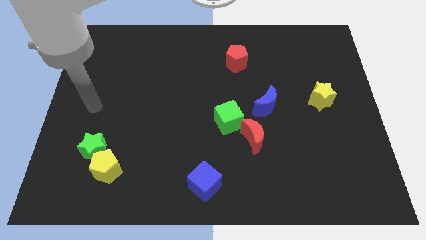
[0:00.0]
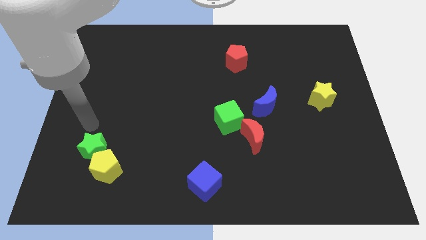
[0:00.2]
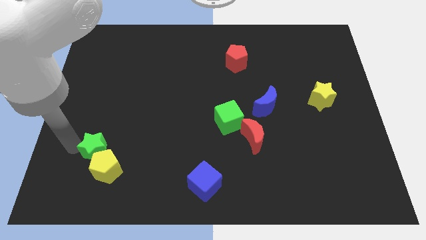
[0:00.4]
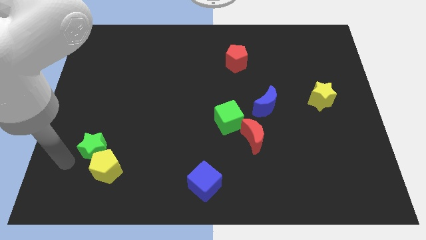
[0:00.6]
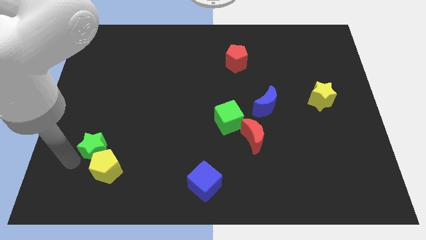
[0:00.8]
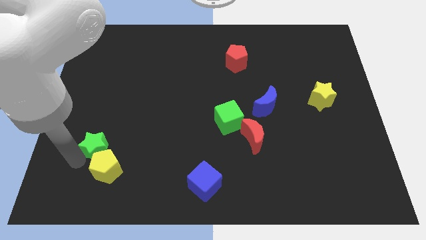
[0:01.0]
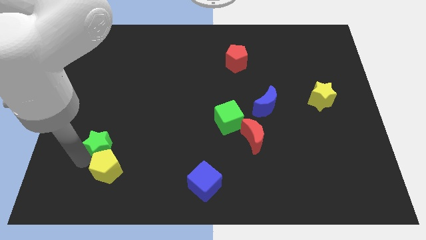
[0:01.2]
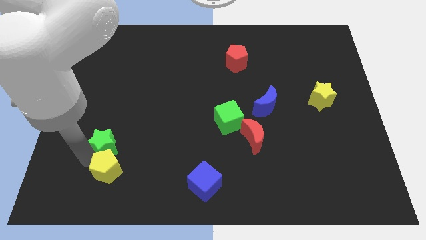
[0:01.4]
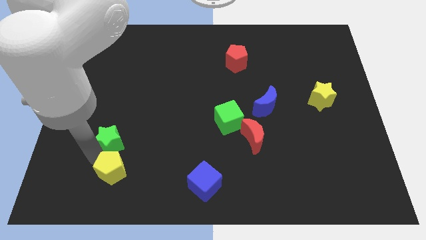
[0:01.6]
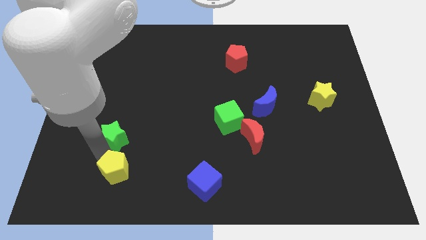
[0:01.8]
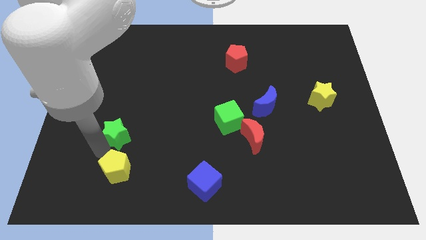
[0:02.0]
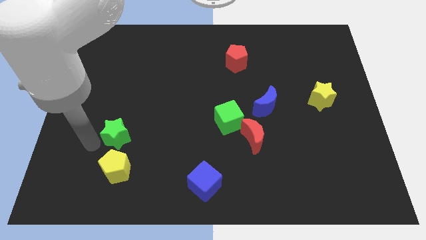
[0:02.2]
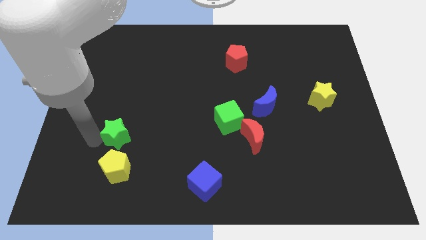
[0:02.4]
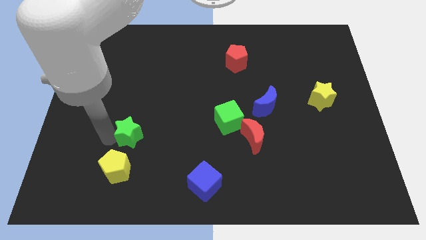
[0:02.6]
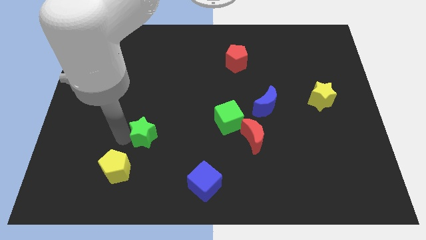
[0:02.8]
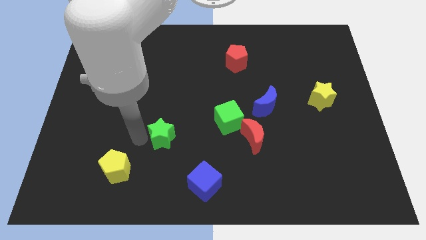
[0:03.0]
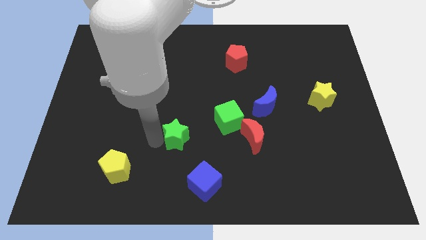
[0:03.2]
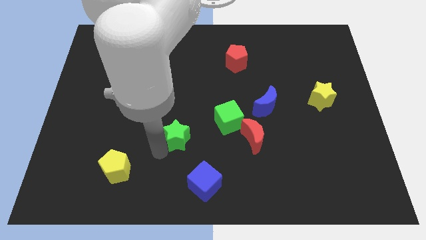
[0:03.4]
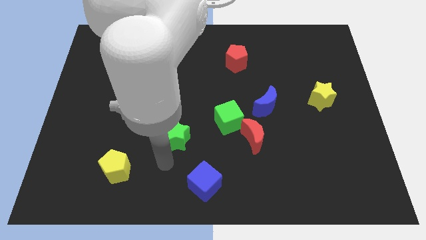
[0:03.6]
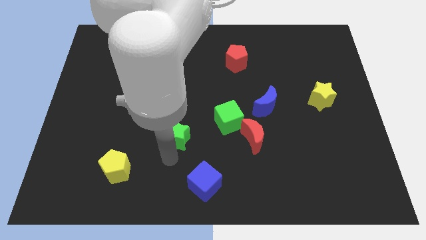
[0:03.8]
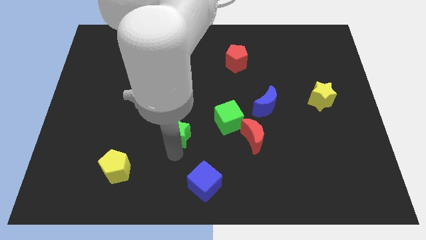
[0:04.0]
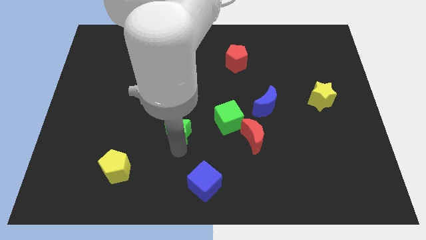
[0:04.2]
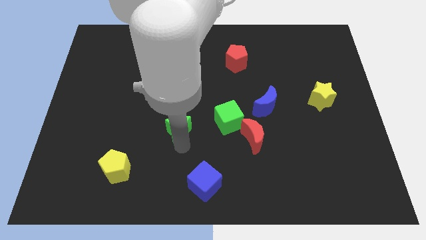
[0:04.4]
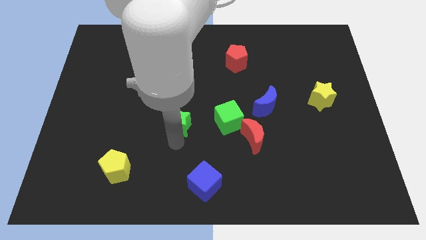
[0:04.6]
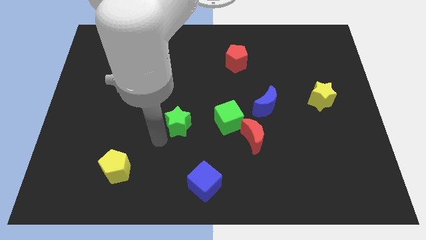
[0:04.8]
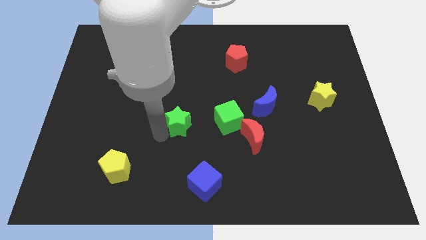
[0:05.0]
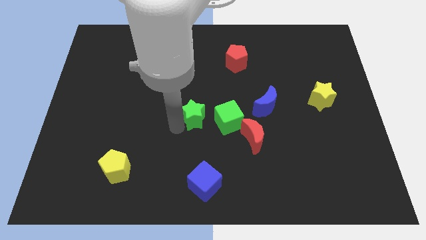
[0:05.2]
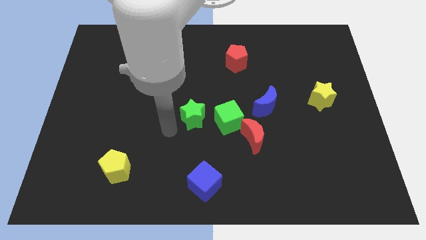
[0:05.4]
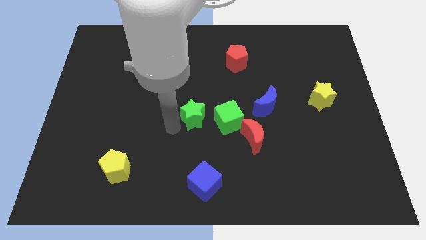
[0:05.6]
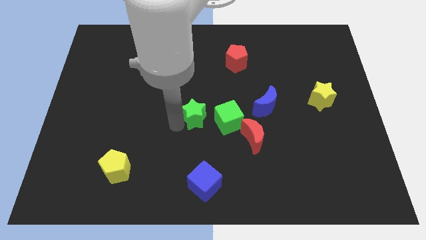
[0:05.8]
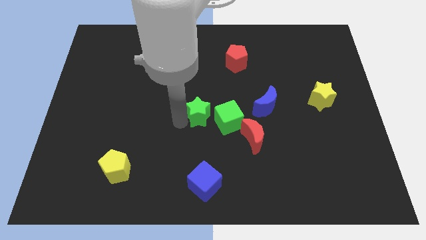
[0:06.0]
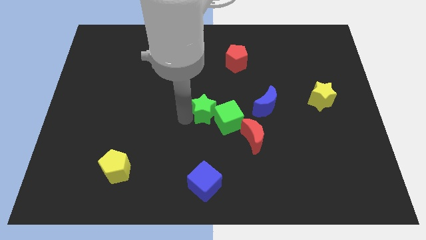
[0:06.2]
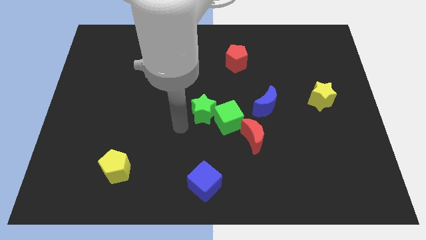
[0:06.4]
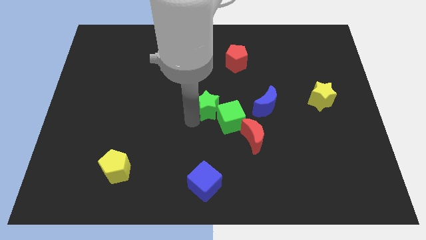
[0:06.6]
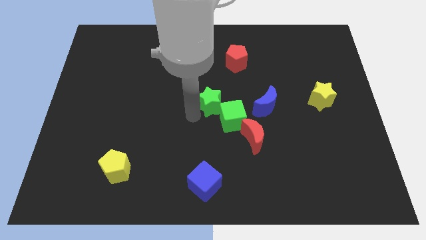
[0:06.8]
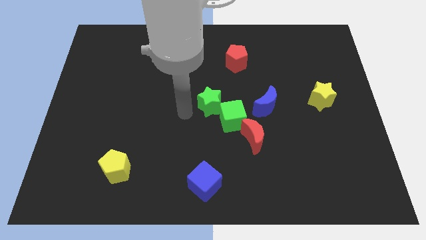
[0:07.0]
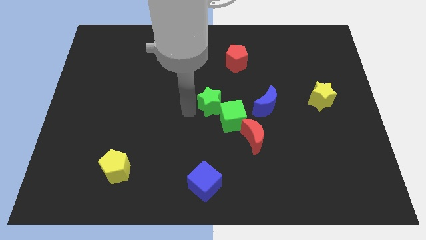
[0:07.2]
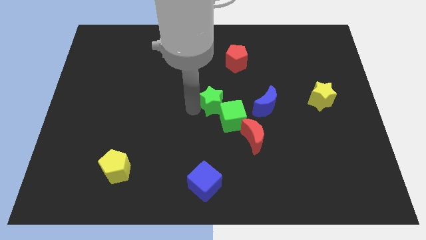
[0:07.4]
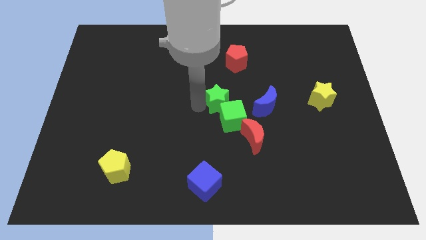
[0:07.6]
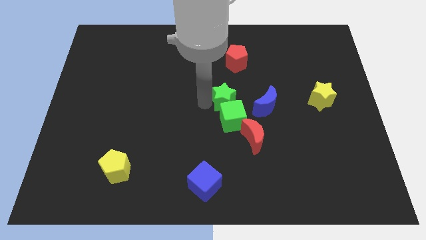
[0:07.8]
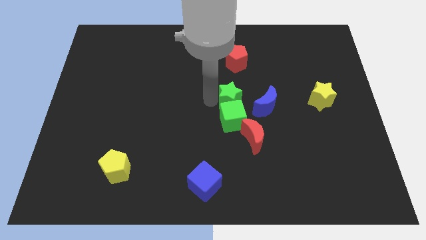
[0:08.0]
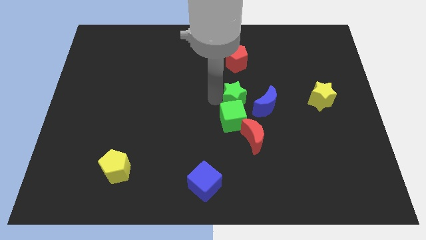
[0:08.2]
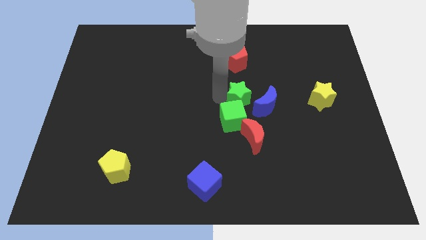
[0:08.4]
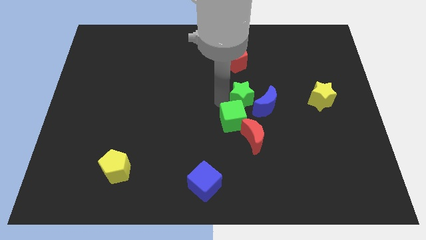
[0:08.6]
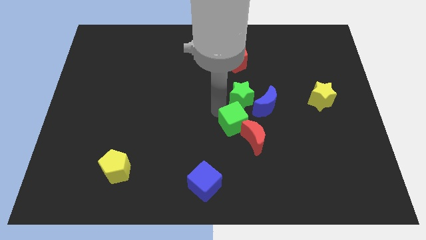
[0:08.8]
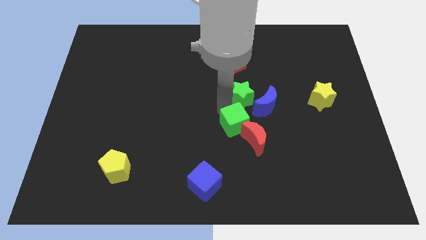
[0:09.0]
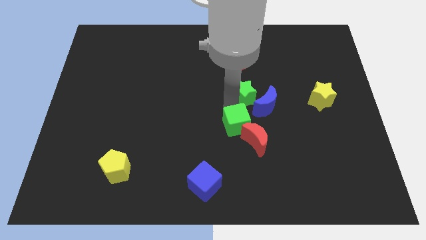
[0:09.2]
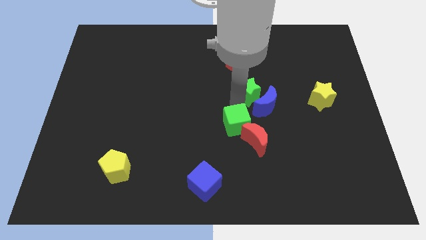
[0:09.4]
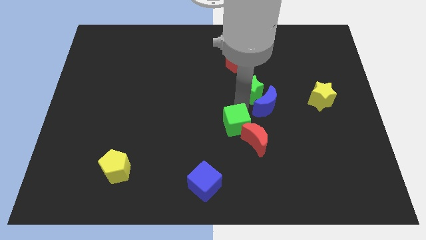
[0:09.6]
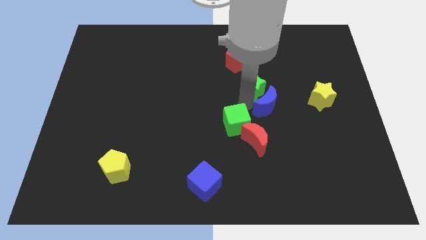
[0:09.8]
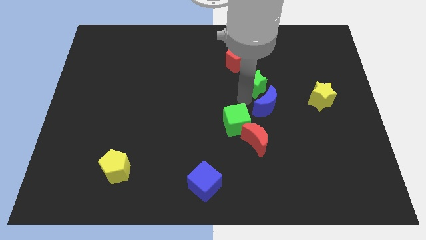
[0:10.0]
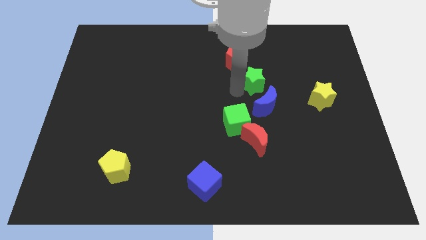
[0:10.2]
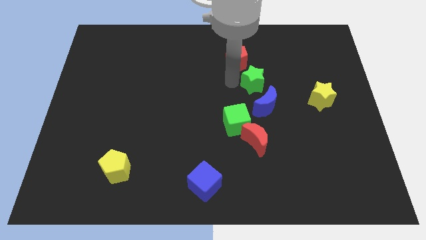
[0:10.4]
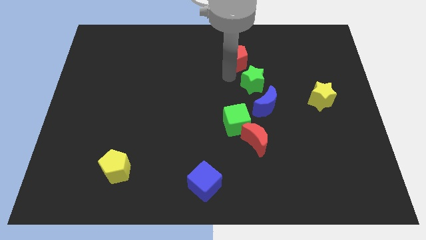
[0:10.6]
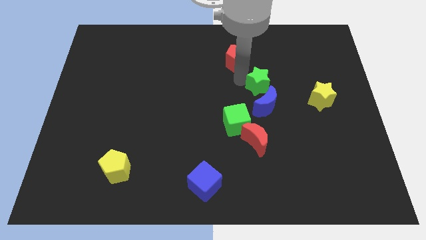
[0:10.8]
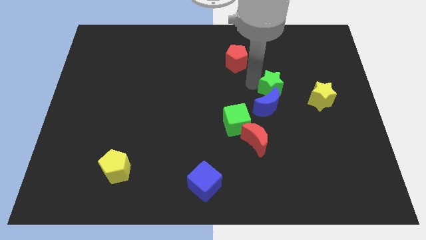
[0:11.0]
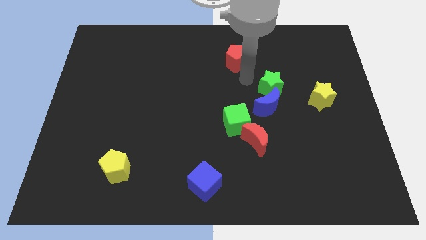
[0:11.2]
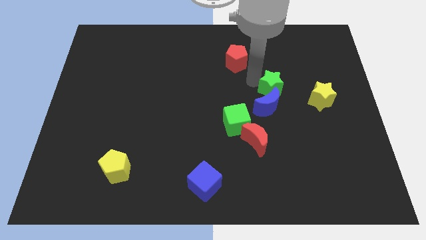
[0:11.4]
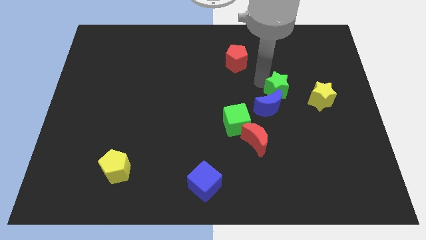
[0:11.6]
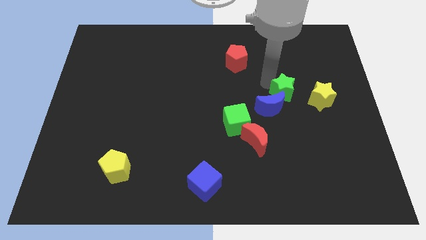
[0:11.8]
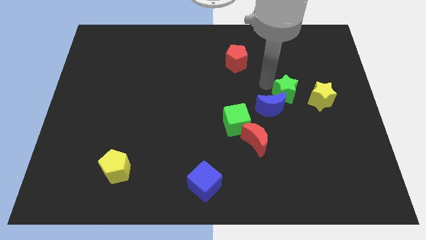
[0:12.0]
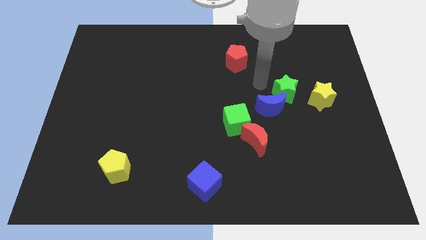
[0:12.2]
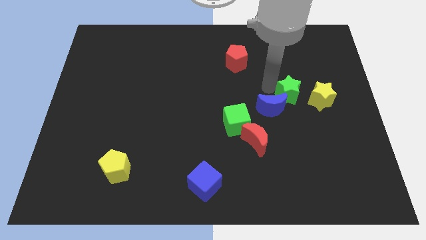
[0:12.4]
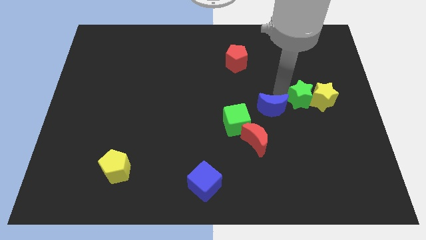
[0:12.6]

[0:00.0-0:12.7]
push the green star towards the yellow star

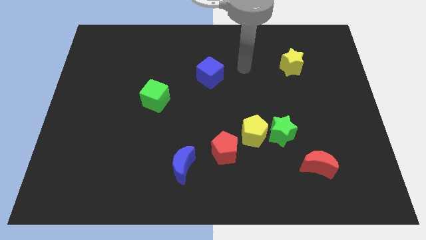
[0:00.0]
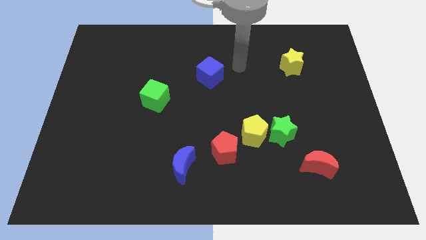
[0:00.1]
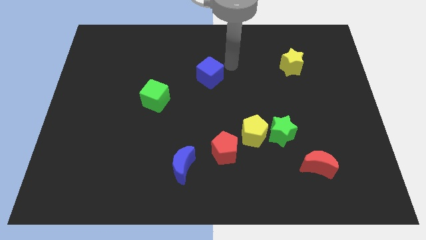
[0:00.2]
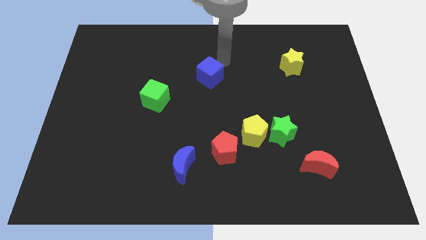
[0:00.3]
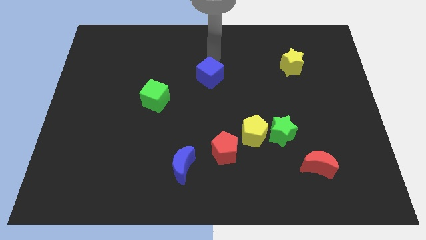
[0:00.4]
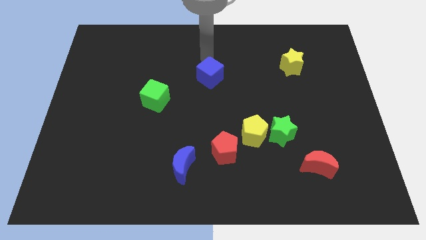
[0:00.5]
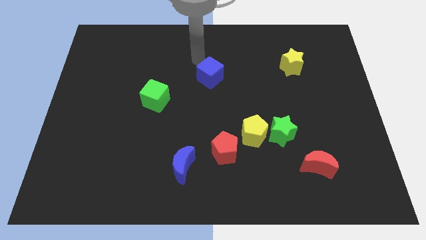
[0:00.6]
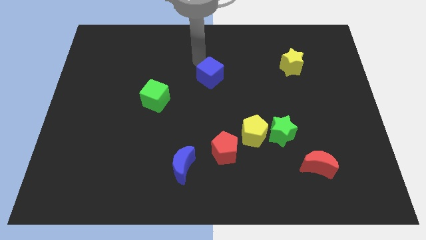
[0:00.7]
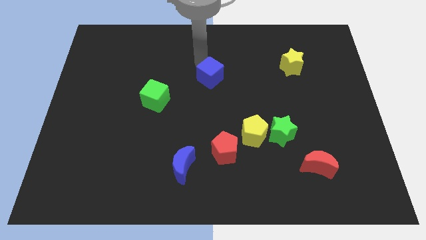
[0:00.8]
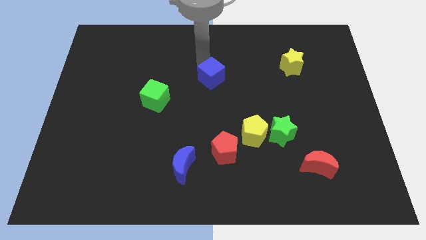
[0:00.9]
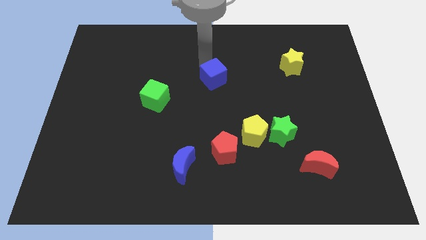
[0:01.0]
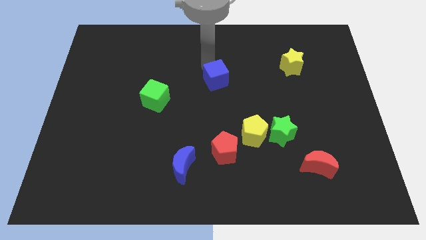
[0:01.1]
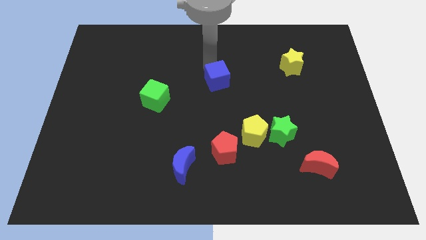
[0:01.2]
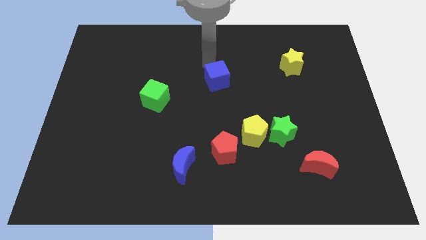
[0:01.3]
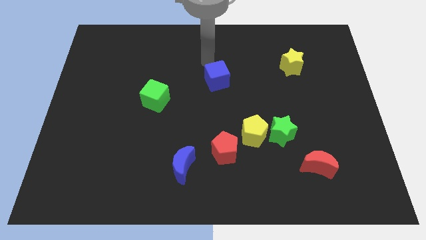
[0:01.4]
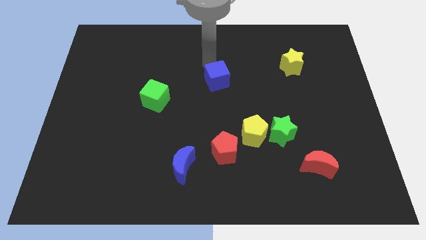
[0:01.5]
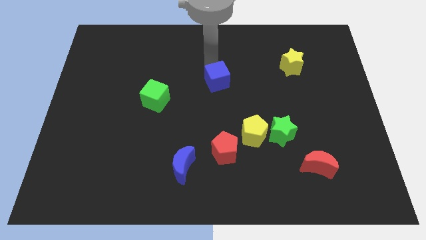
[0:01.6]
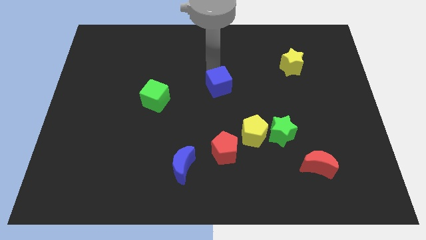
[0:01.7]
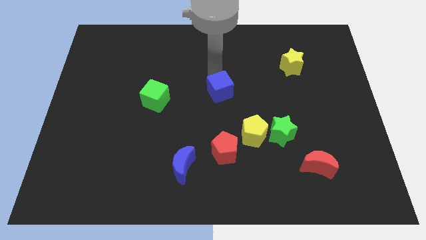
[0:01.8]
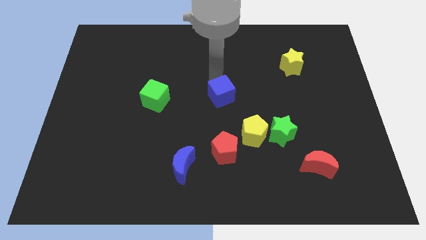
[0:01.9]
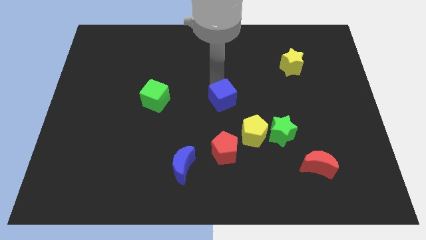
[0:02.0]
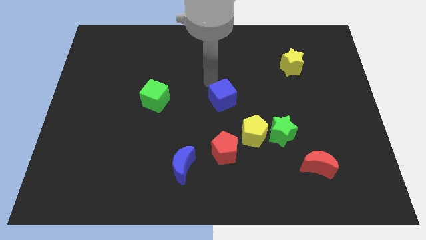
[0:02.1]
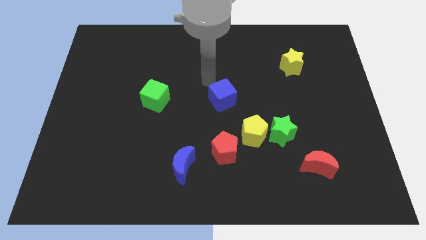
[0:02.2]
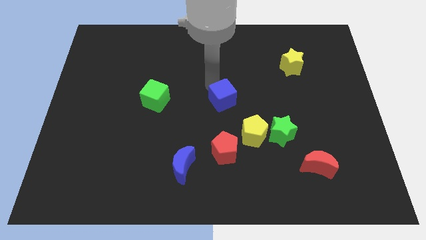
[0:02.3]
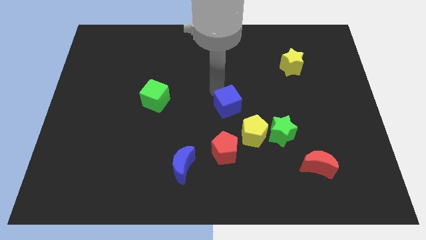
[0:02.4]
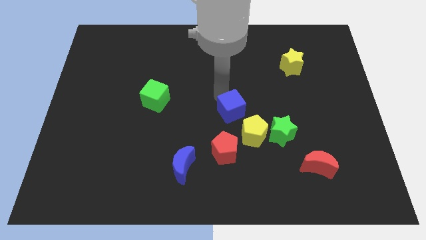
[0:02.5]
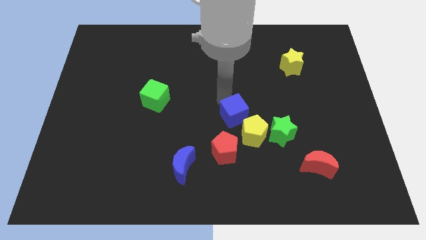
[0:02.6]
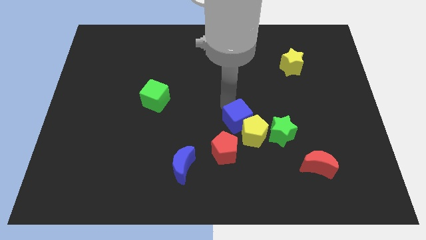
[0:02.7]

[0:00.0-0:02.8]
put the blue cube towards the yellow pentagon
